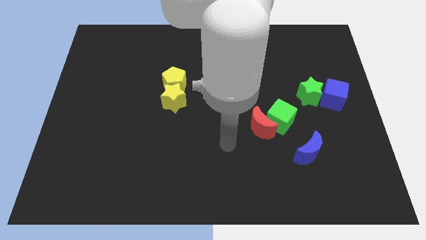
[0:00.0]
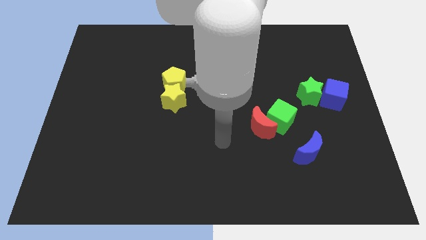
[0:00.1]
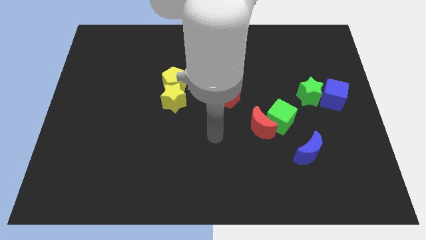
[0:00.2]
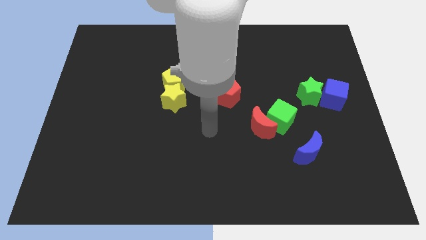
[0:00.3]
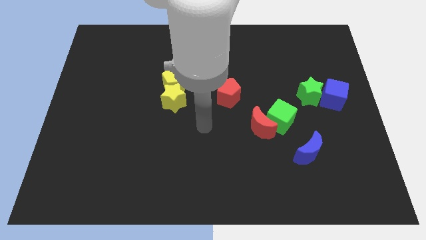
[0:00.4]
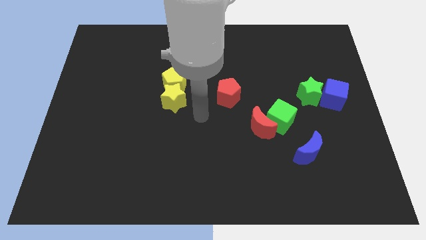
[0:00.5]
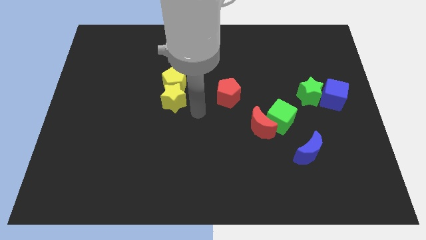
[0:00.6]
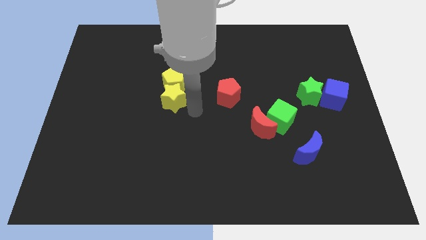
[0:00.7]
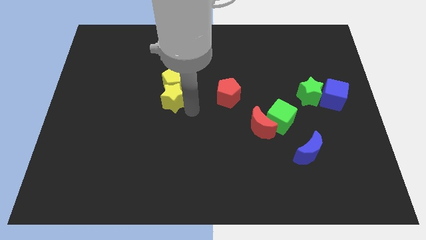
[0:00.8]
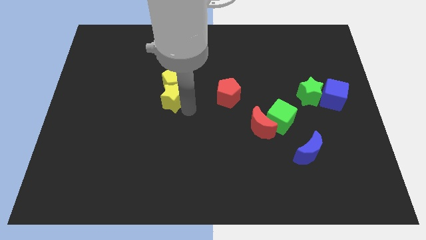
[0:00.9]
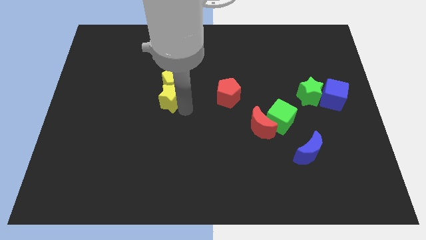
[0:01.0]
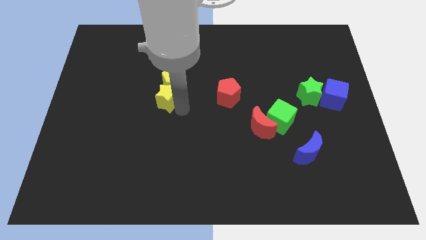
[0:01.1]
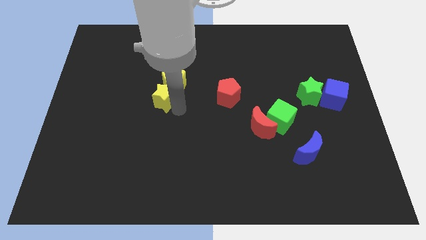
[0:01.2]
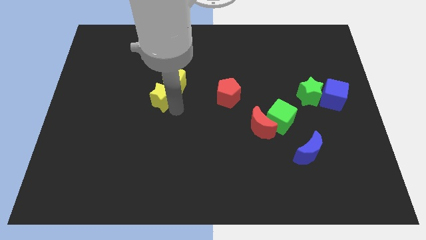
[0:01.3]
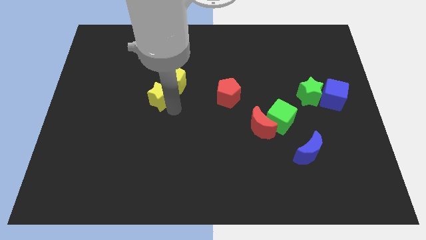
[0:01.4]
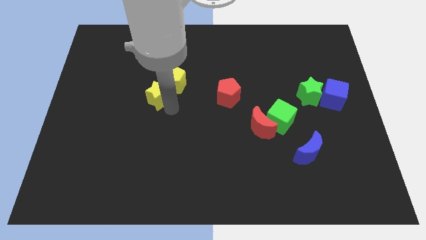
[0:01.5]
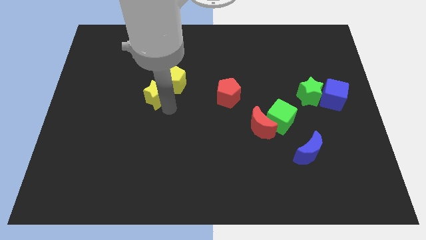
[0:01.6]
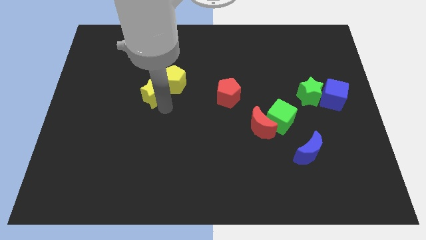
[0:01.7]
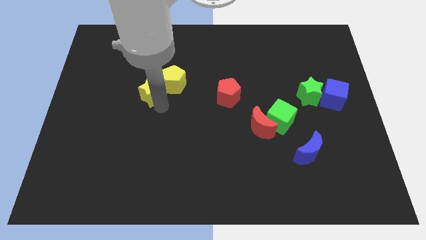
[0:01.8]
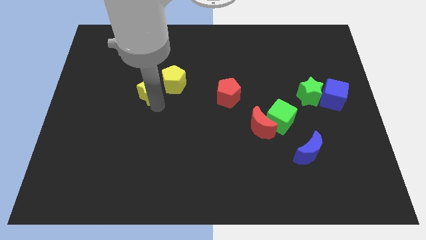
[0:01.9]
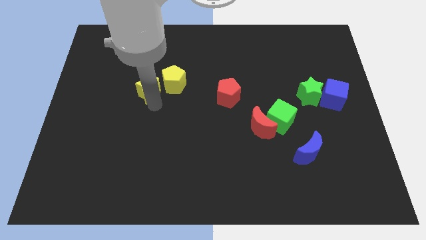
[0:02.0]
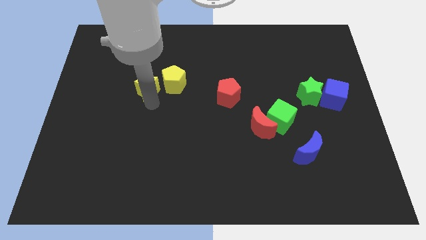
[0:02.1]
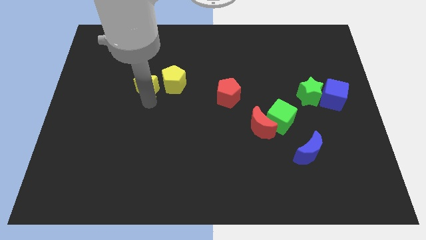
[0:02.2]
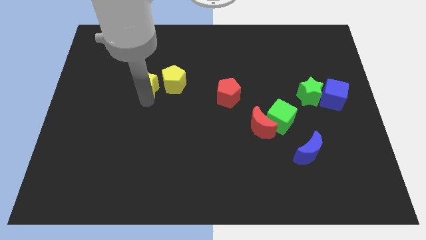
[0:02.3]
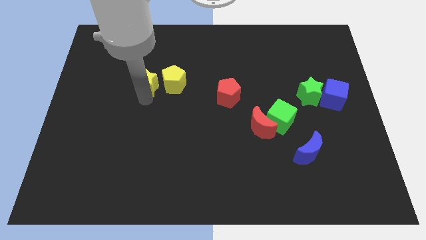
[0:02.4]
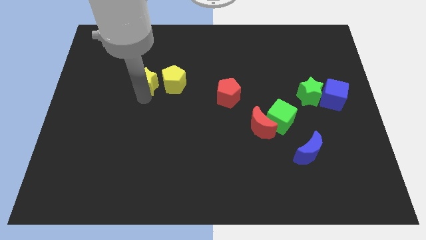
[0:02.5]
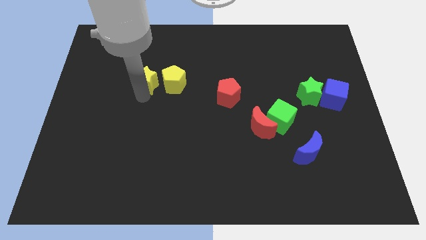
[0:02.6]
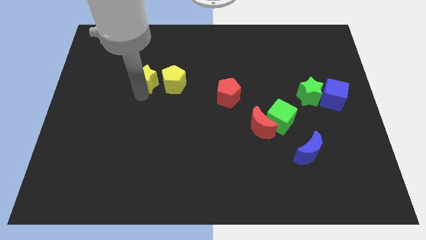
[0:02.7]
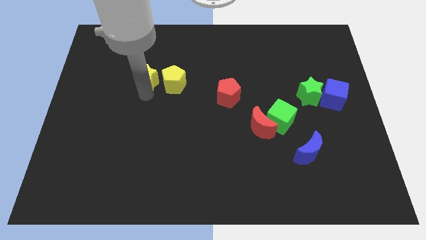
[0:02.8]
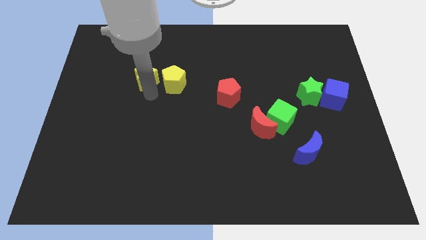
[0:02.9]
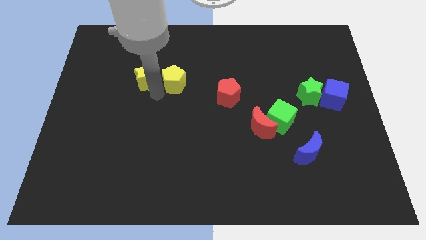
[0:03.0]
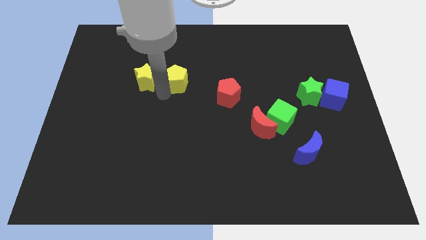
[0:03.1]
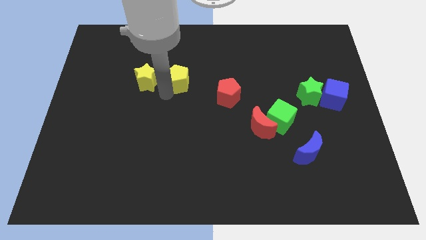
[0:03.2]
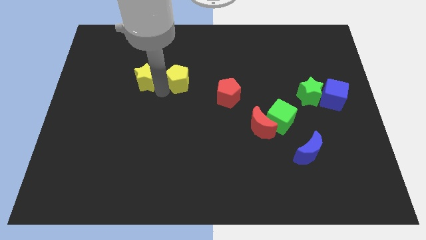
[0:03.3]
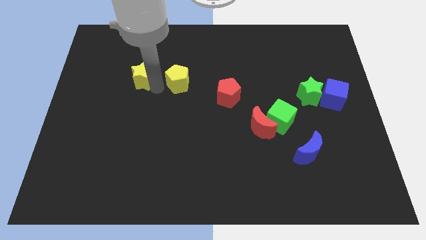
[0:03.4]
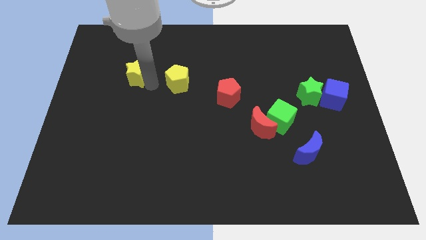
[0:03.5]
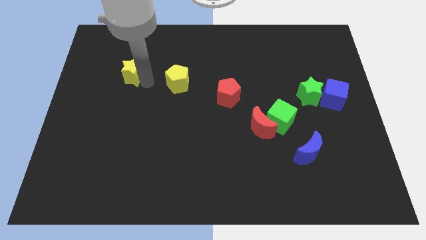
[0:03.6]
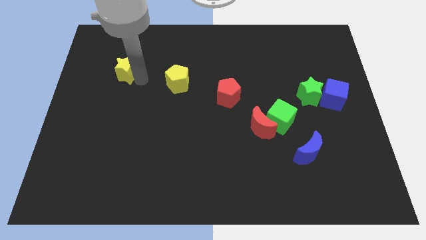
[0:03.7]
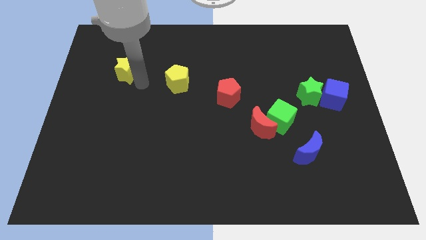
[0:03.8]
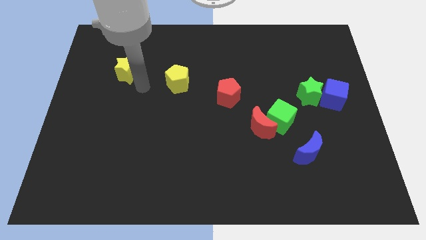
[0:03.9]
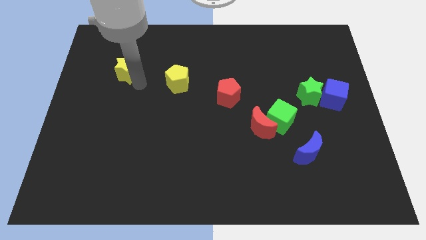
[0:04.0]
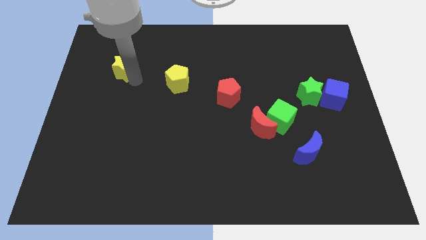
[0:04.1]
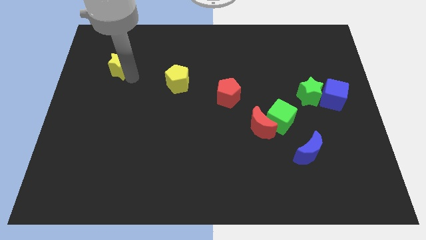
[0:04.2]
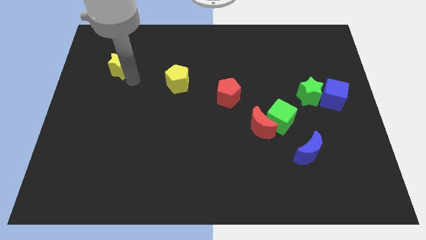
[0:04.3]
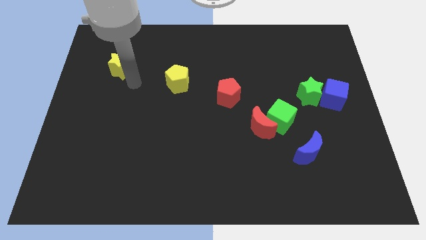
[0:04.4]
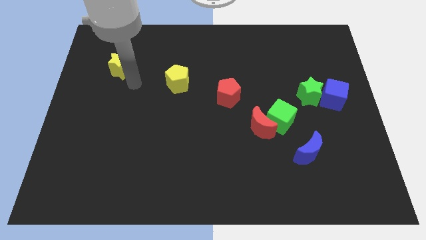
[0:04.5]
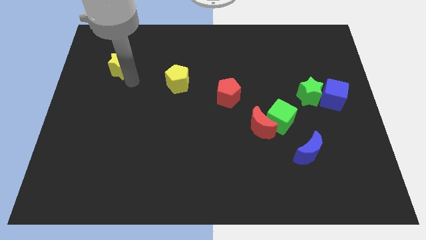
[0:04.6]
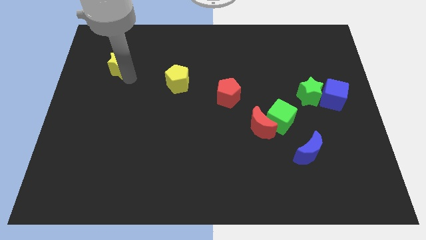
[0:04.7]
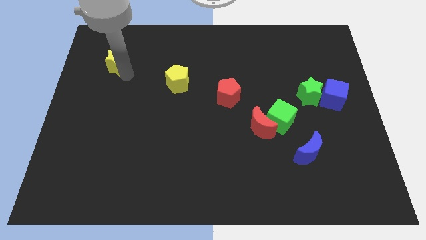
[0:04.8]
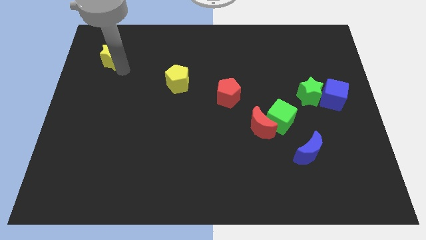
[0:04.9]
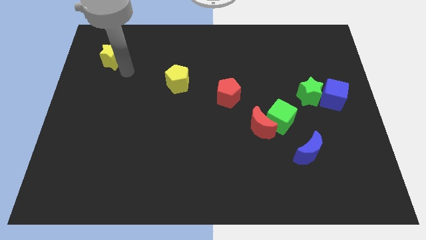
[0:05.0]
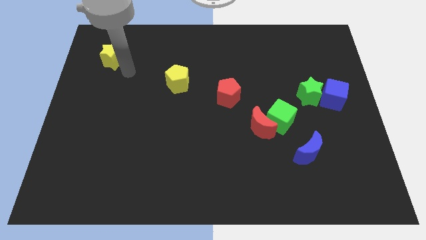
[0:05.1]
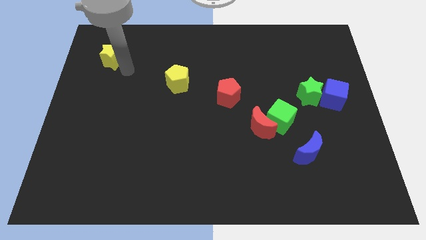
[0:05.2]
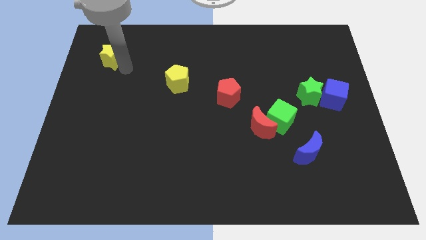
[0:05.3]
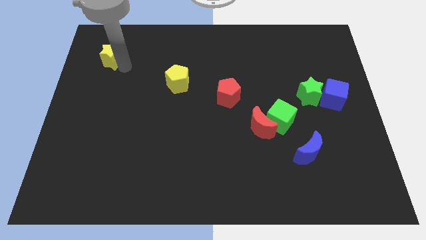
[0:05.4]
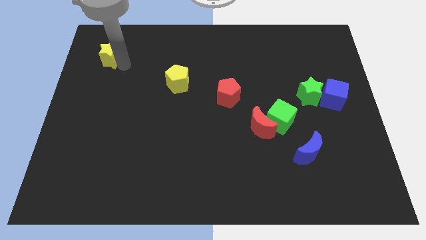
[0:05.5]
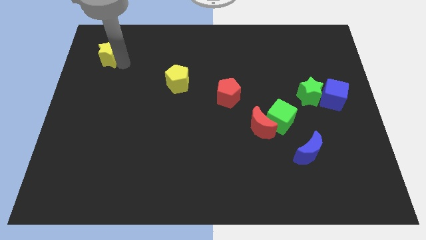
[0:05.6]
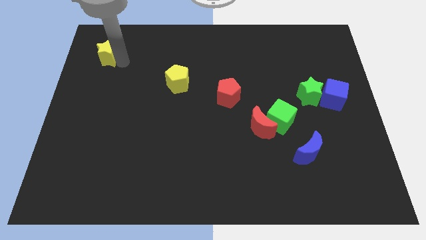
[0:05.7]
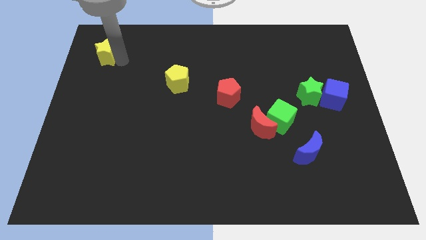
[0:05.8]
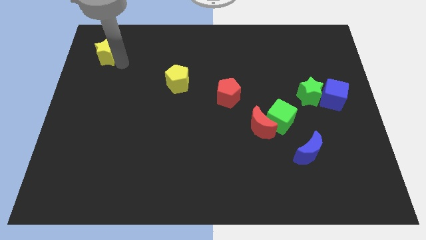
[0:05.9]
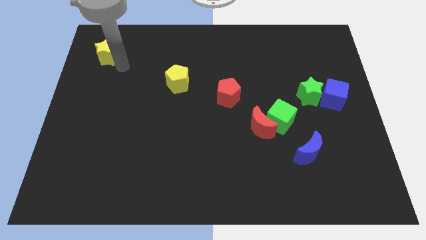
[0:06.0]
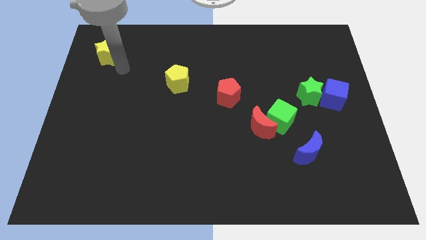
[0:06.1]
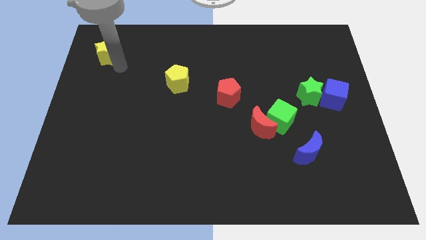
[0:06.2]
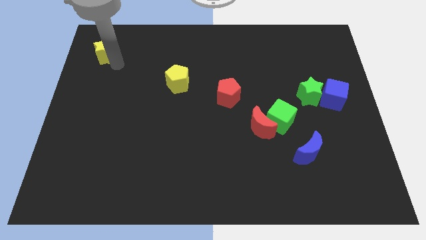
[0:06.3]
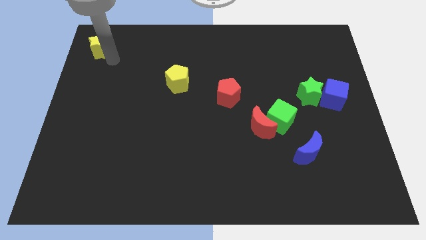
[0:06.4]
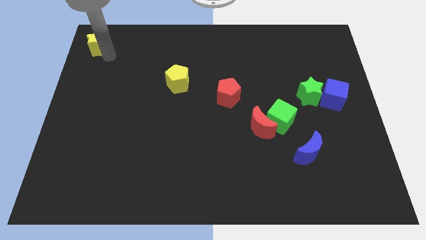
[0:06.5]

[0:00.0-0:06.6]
slide the yellow star to the upper left corner

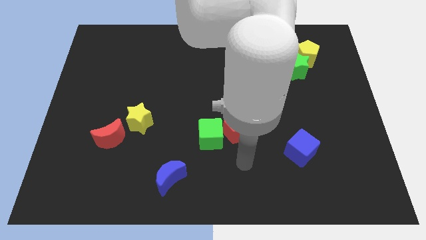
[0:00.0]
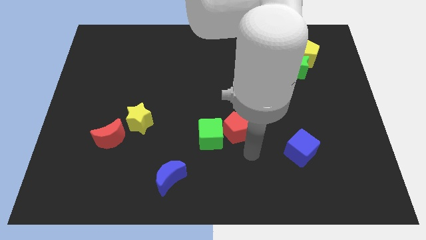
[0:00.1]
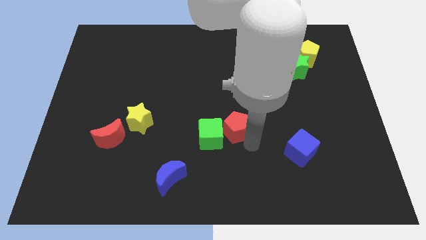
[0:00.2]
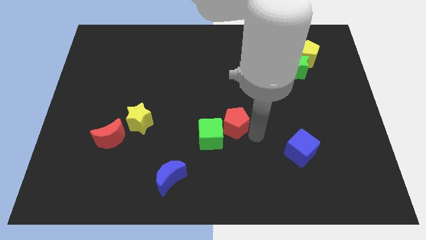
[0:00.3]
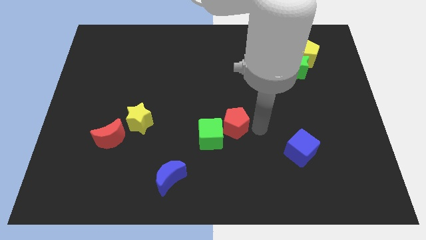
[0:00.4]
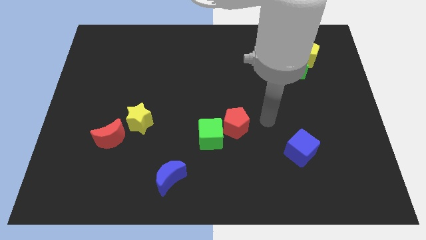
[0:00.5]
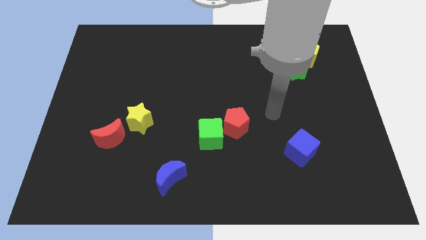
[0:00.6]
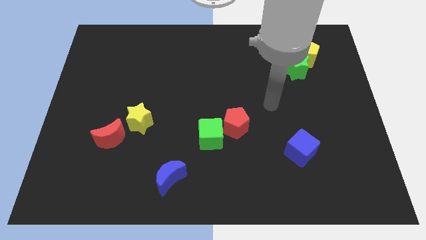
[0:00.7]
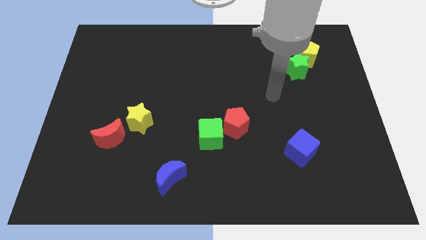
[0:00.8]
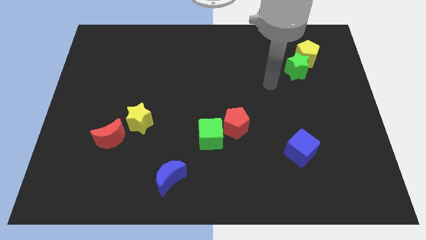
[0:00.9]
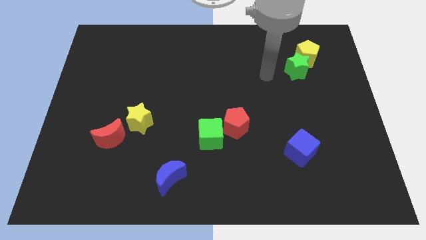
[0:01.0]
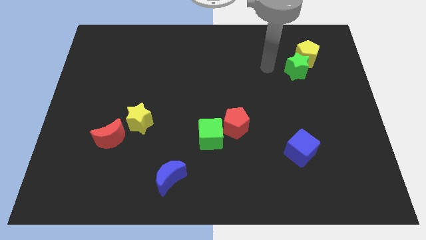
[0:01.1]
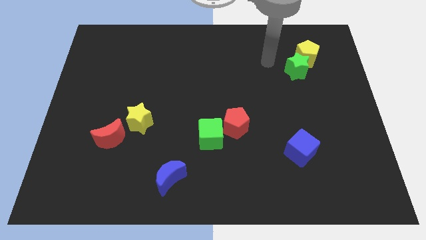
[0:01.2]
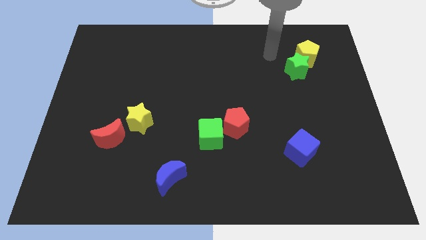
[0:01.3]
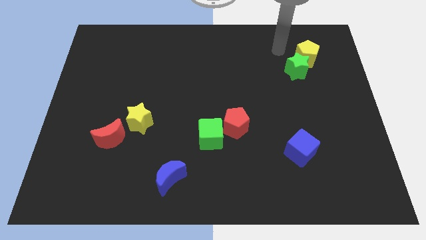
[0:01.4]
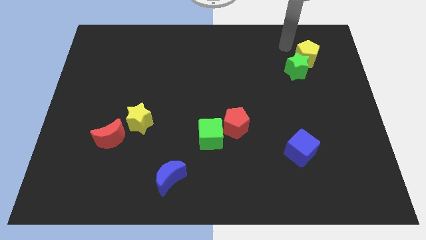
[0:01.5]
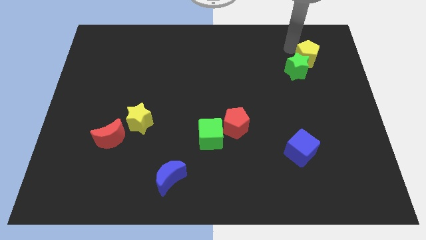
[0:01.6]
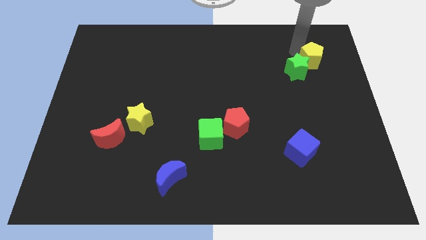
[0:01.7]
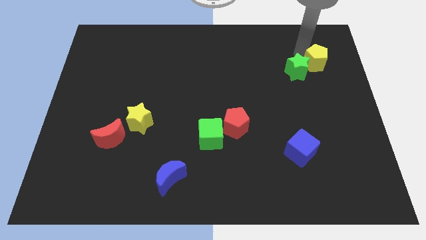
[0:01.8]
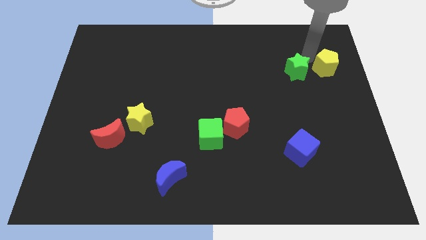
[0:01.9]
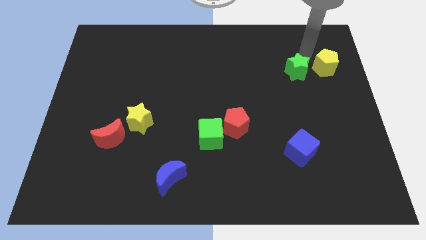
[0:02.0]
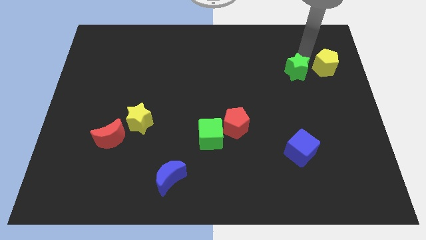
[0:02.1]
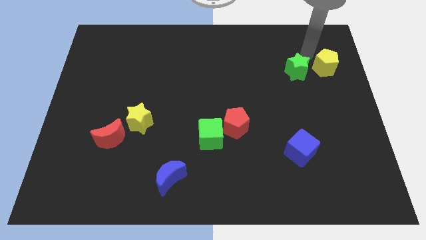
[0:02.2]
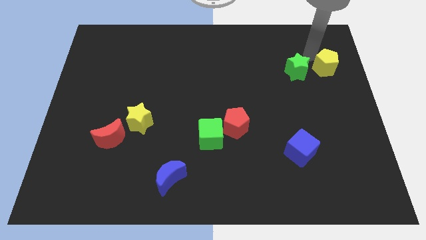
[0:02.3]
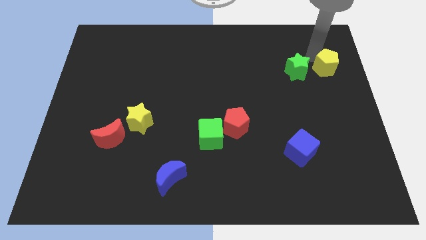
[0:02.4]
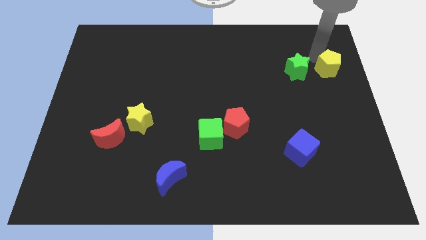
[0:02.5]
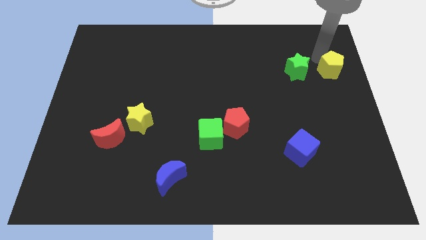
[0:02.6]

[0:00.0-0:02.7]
put the yellow pentagon to the center right
